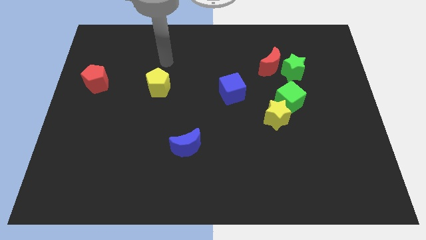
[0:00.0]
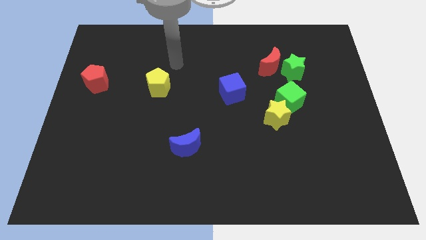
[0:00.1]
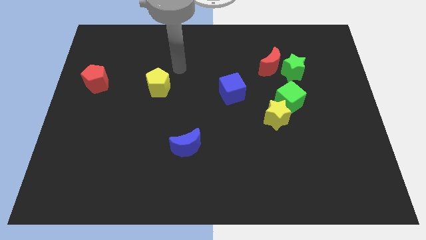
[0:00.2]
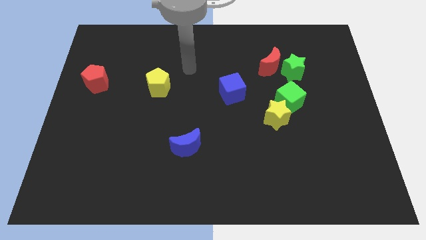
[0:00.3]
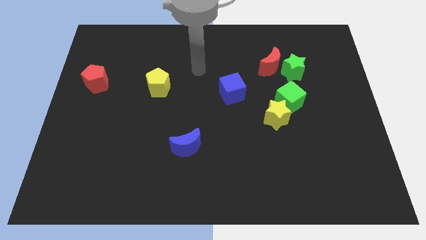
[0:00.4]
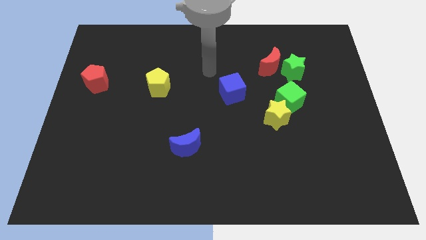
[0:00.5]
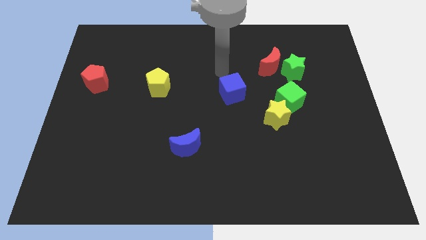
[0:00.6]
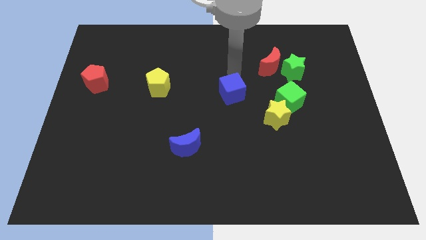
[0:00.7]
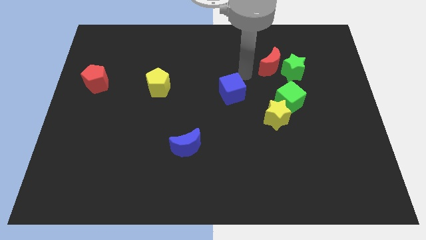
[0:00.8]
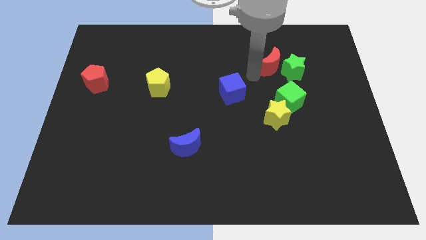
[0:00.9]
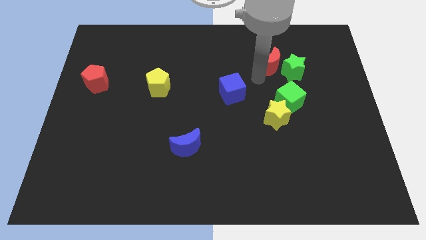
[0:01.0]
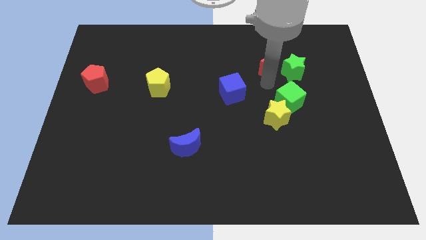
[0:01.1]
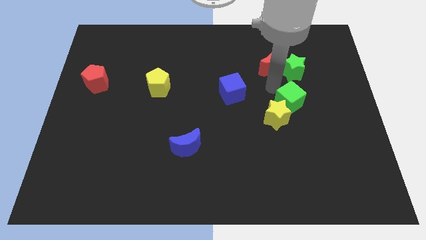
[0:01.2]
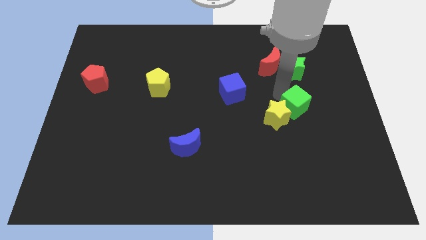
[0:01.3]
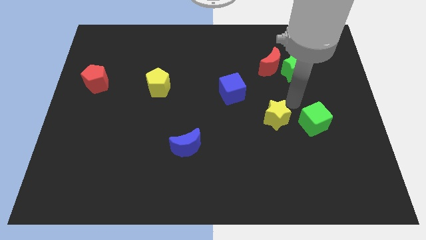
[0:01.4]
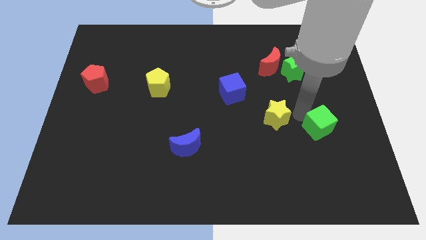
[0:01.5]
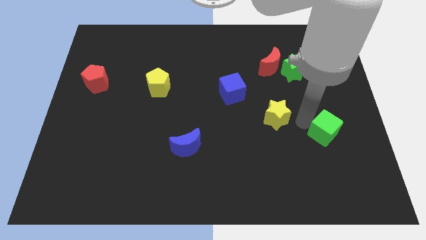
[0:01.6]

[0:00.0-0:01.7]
separate the yellow star from the green cube

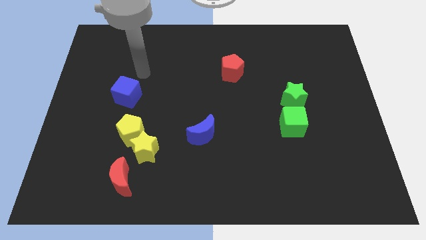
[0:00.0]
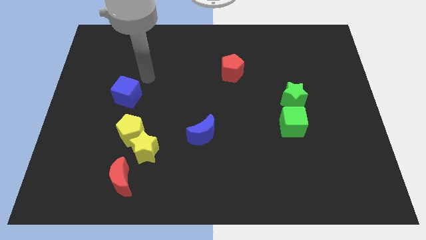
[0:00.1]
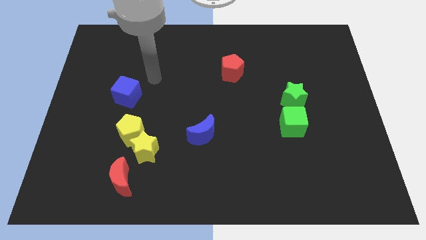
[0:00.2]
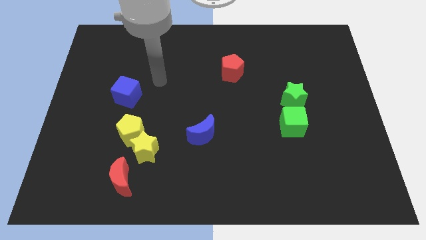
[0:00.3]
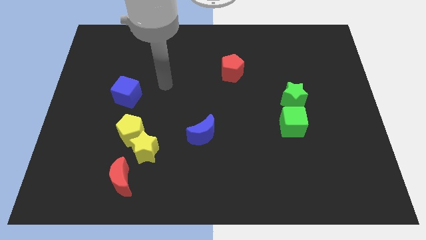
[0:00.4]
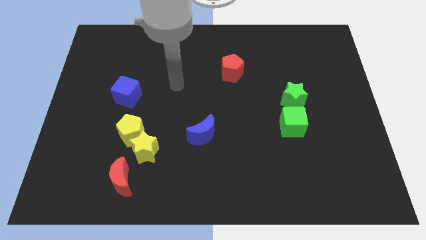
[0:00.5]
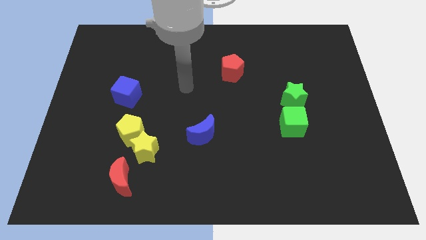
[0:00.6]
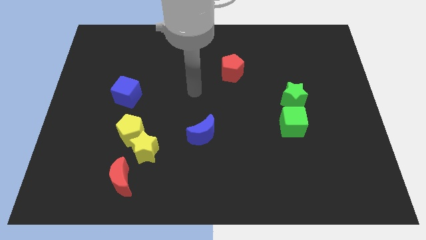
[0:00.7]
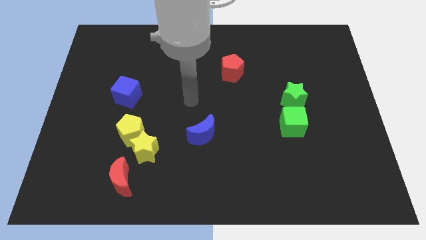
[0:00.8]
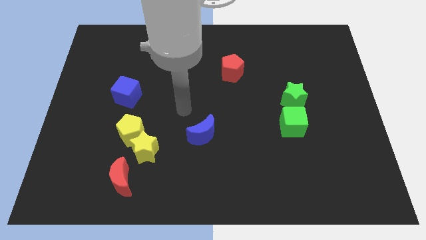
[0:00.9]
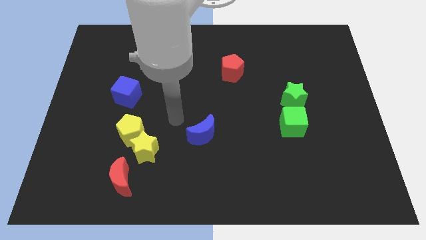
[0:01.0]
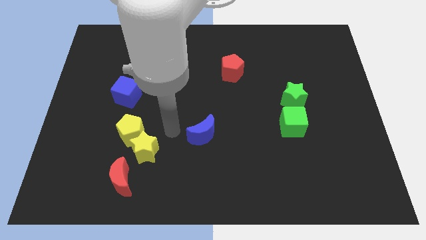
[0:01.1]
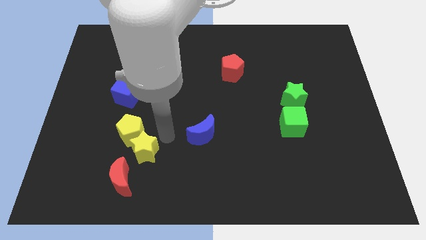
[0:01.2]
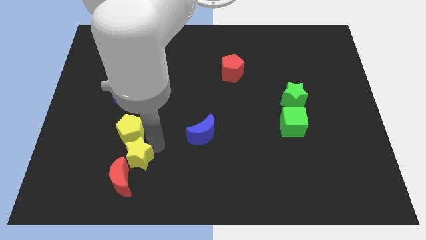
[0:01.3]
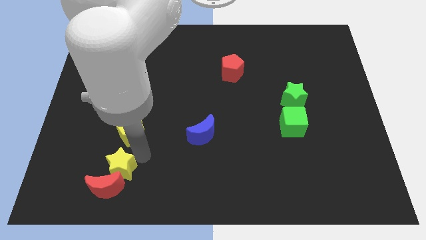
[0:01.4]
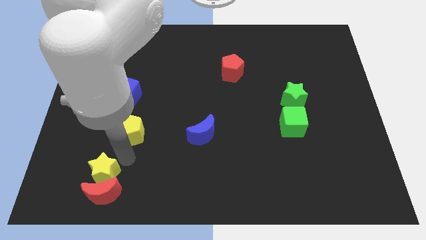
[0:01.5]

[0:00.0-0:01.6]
separate the yellow pentagon from the yellow star

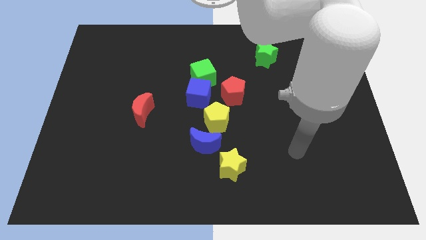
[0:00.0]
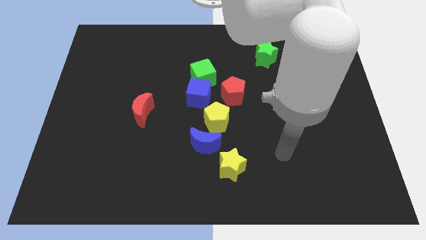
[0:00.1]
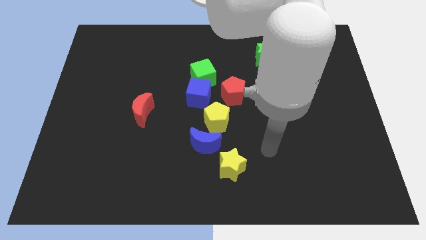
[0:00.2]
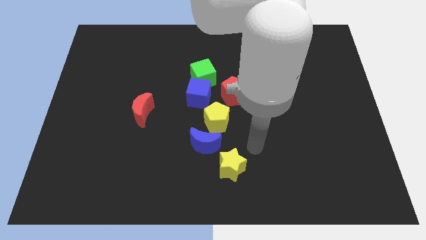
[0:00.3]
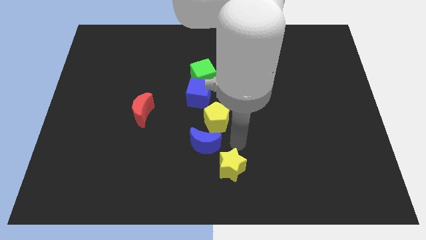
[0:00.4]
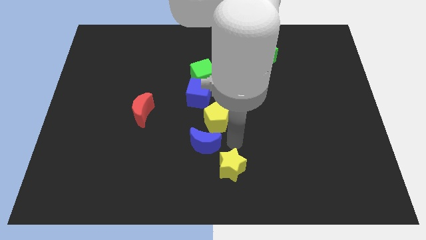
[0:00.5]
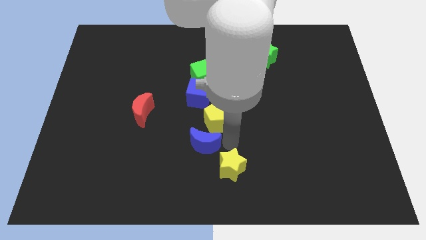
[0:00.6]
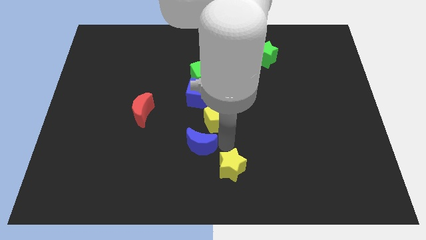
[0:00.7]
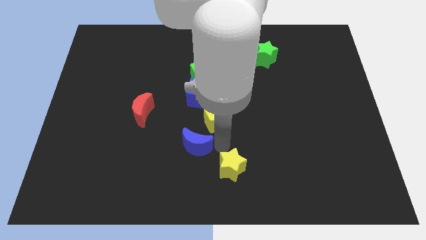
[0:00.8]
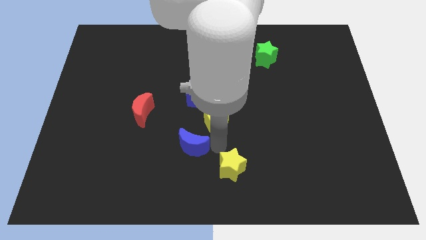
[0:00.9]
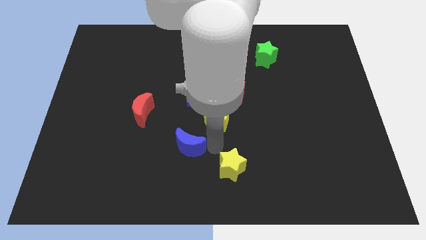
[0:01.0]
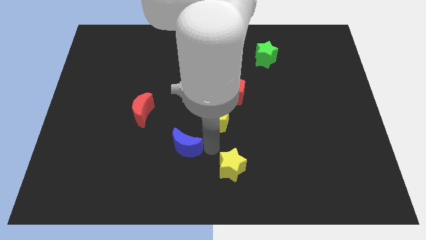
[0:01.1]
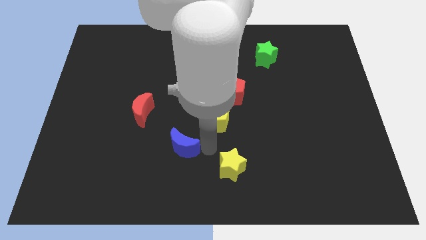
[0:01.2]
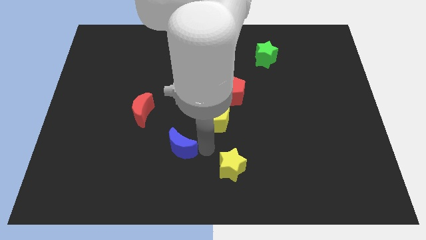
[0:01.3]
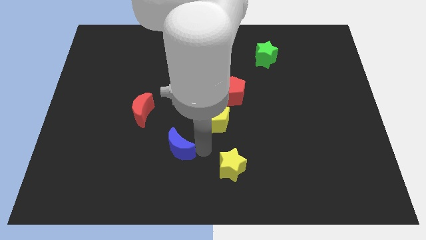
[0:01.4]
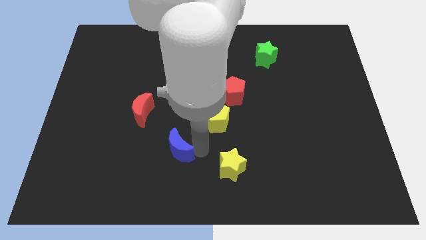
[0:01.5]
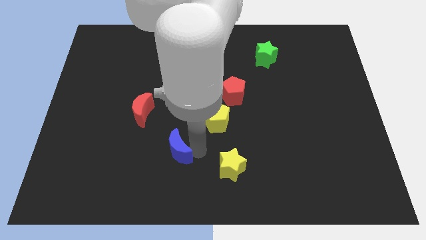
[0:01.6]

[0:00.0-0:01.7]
move the blue moon away from the yellow pentagon and yellow star

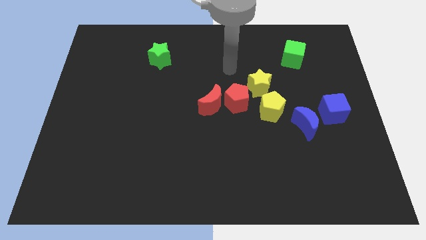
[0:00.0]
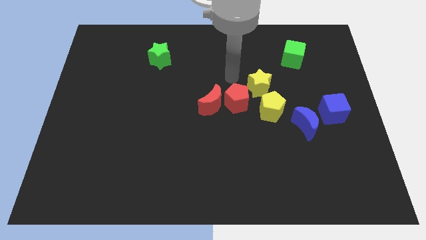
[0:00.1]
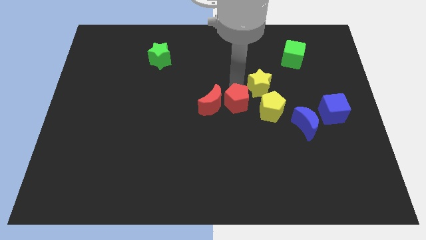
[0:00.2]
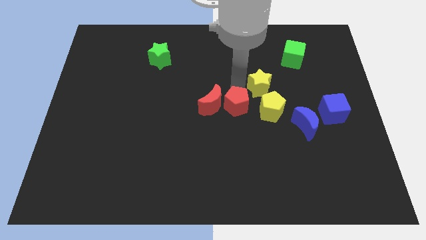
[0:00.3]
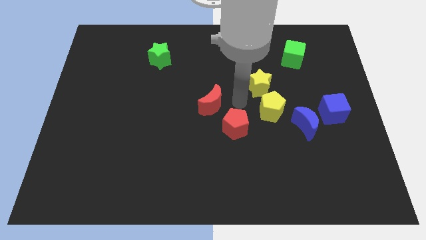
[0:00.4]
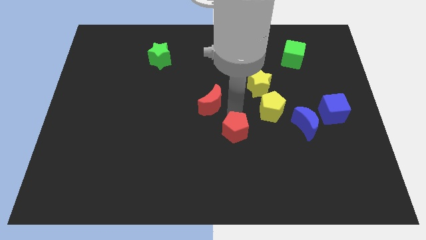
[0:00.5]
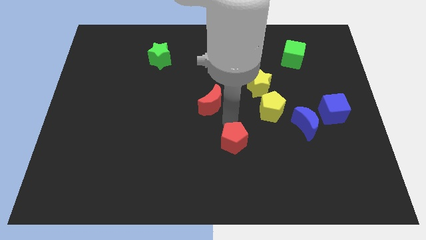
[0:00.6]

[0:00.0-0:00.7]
pull the red moon apart from the red pentagon

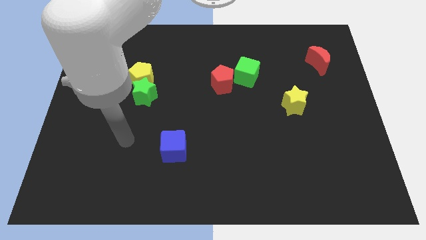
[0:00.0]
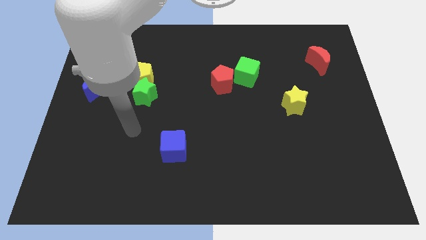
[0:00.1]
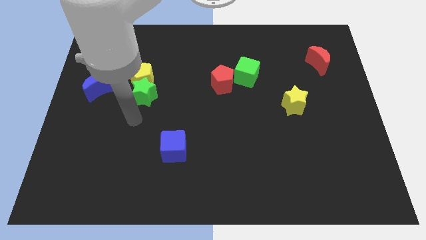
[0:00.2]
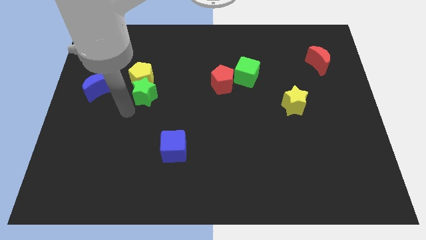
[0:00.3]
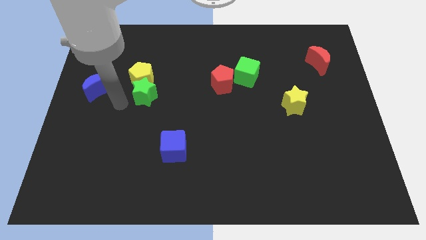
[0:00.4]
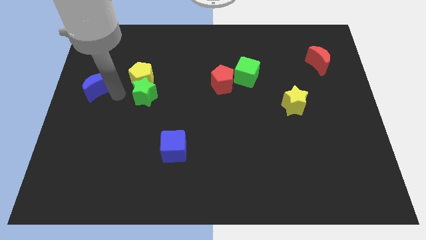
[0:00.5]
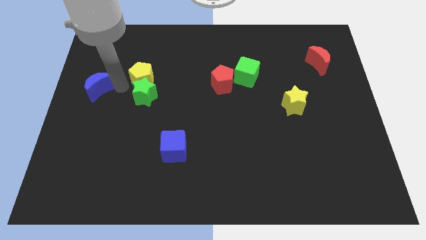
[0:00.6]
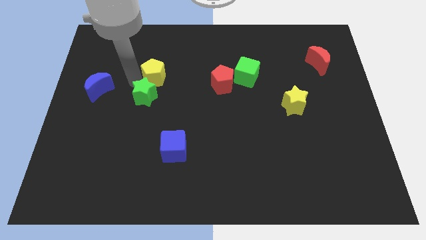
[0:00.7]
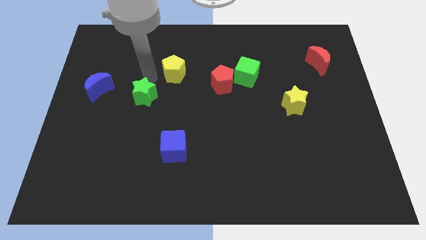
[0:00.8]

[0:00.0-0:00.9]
move the green star away from the yellow pentagon

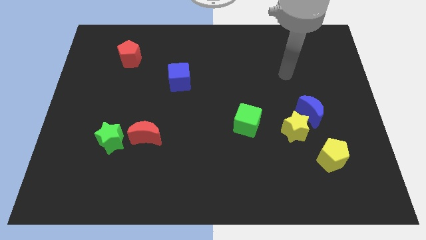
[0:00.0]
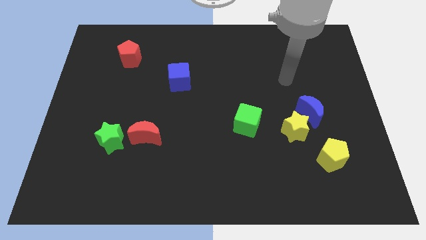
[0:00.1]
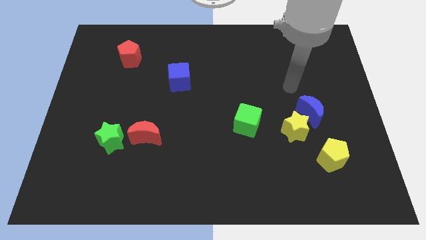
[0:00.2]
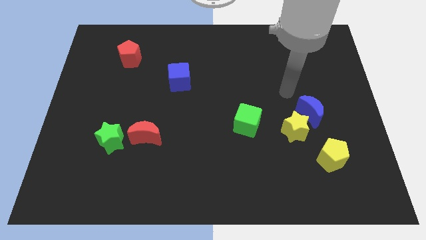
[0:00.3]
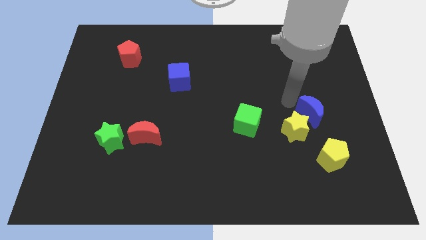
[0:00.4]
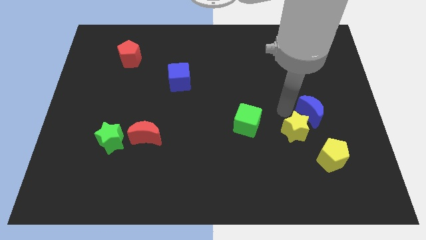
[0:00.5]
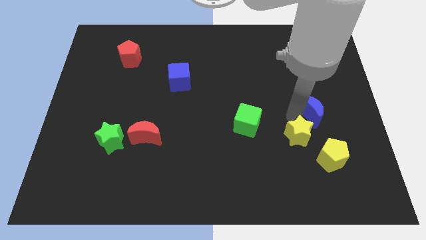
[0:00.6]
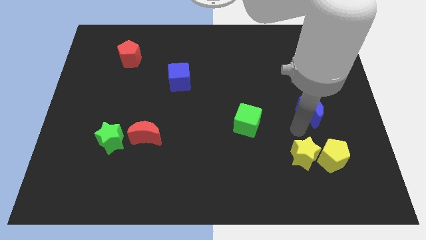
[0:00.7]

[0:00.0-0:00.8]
move the blue moon away from the yellow star

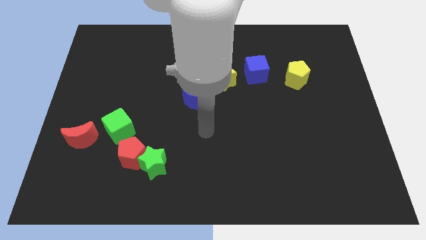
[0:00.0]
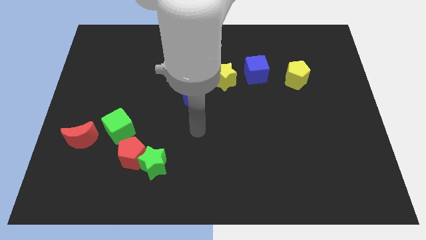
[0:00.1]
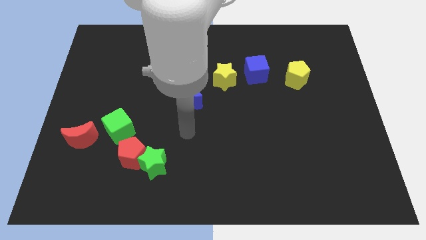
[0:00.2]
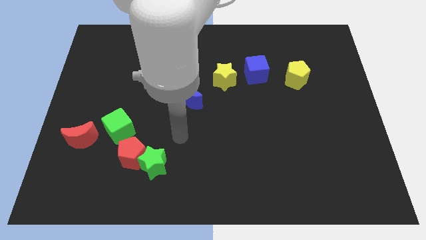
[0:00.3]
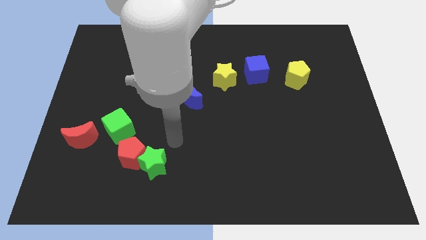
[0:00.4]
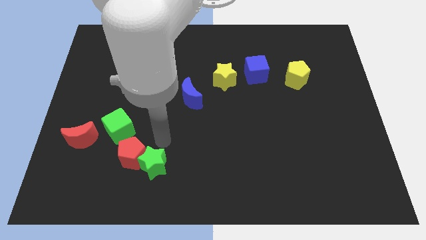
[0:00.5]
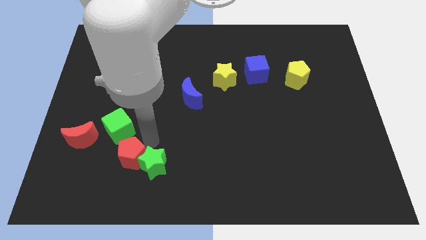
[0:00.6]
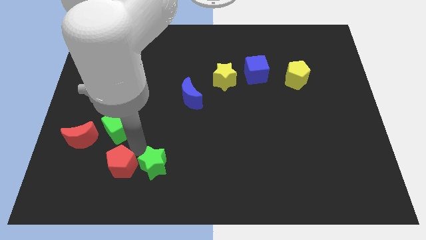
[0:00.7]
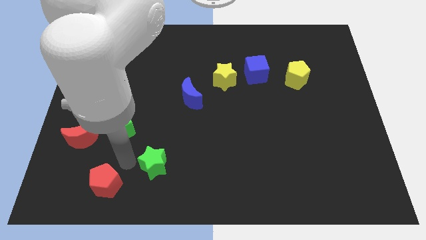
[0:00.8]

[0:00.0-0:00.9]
separate the green star from the red pentagon

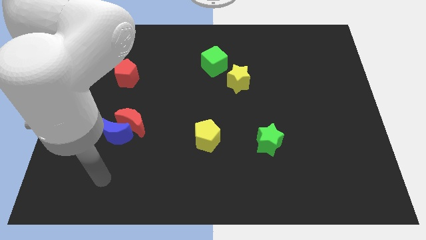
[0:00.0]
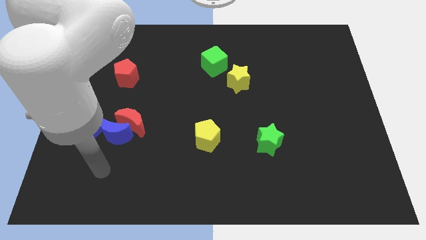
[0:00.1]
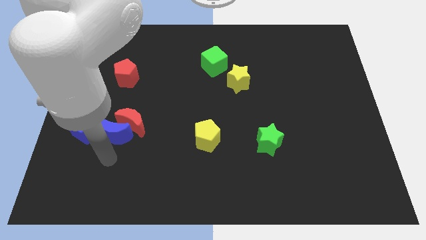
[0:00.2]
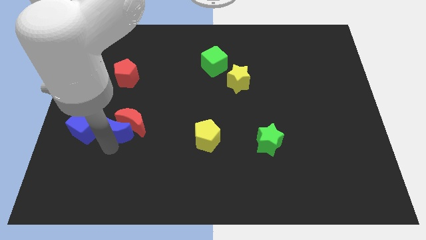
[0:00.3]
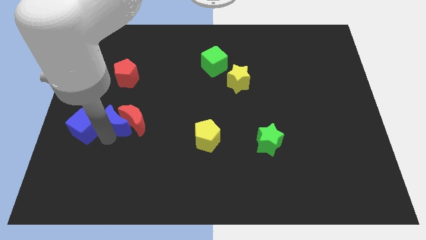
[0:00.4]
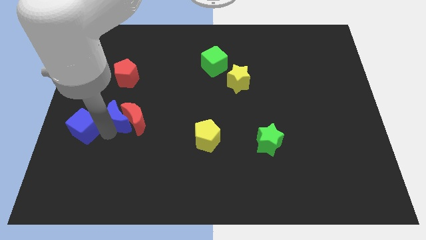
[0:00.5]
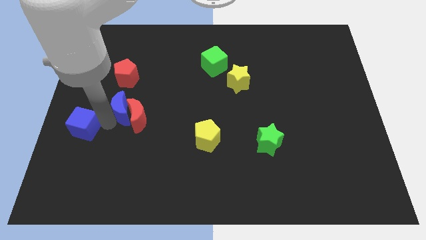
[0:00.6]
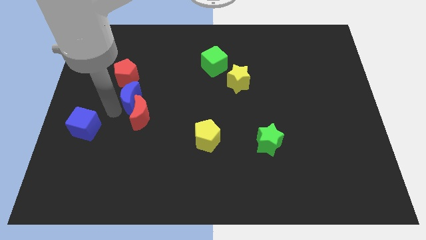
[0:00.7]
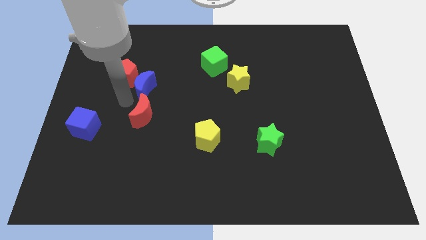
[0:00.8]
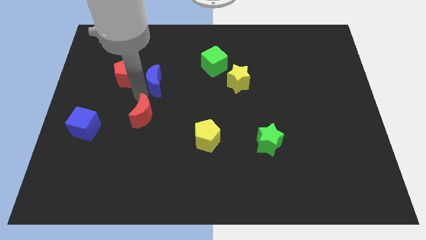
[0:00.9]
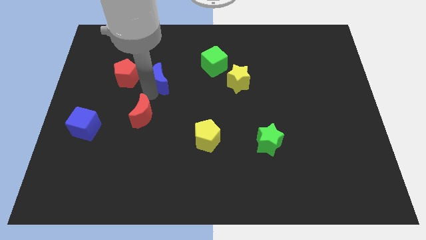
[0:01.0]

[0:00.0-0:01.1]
separate the red moon from the blue moon

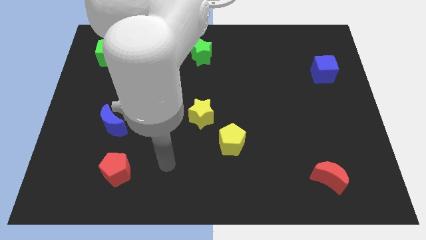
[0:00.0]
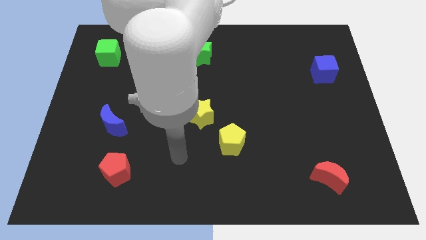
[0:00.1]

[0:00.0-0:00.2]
pull the yellow star apart from the yellow pentagon
